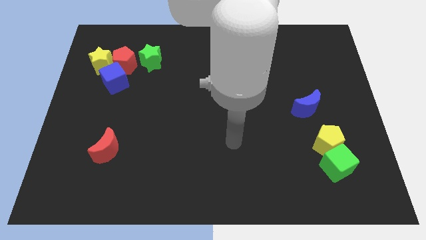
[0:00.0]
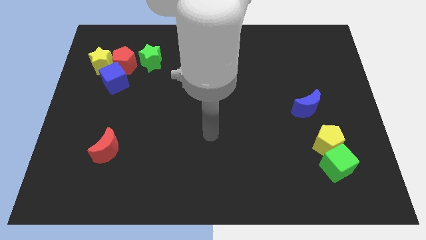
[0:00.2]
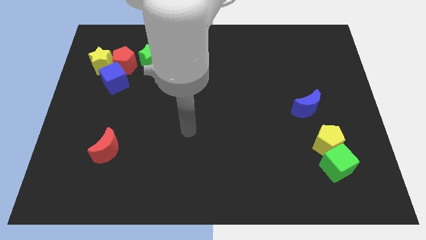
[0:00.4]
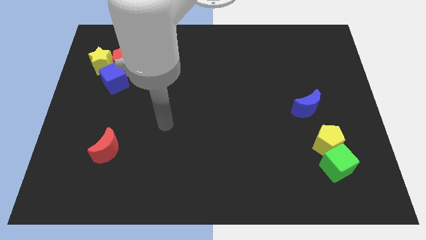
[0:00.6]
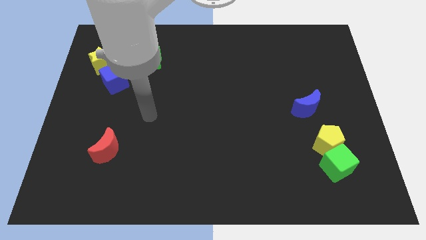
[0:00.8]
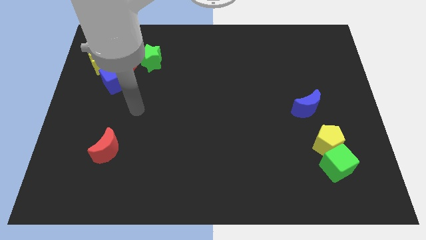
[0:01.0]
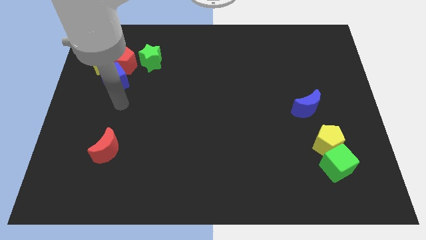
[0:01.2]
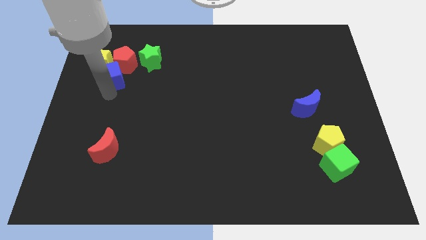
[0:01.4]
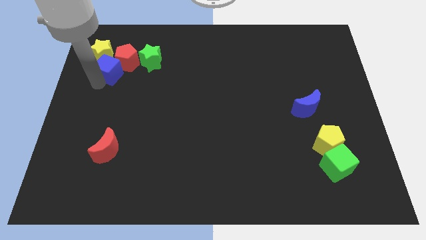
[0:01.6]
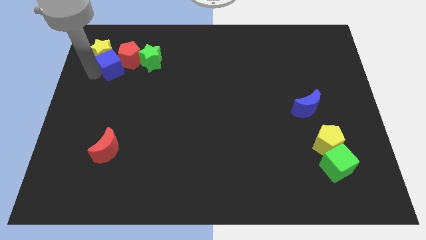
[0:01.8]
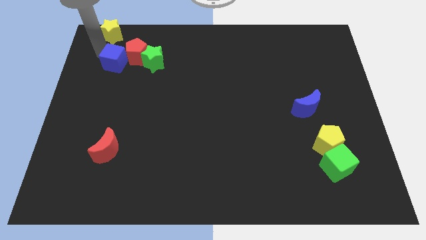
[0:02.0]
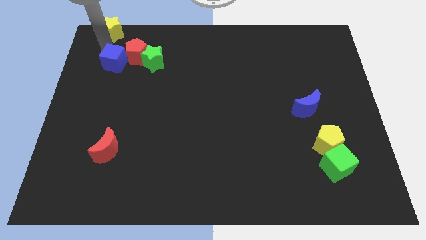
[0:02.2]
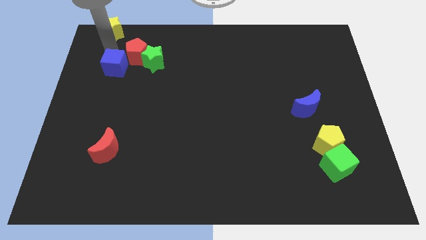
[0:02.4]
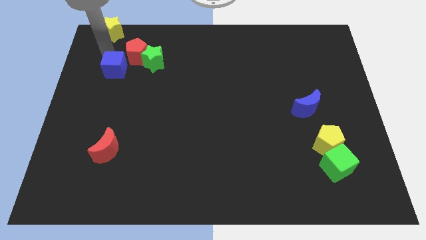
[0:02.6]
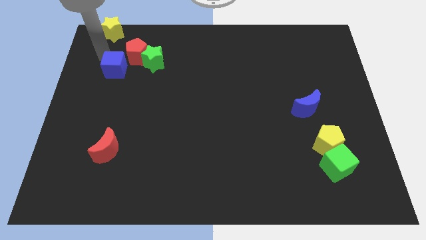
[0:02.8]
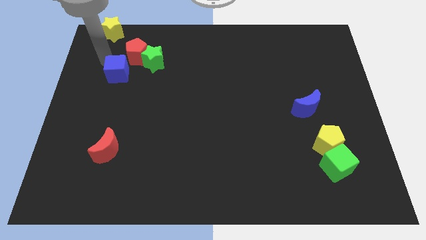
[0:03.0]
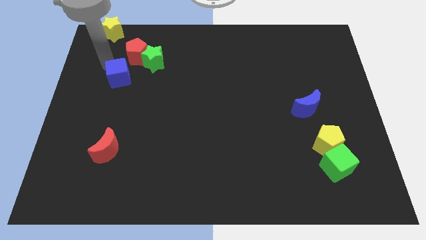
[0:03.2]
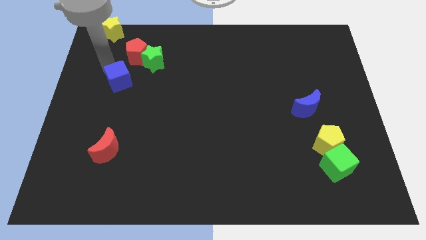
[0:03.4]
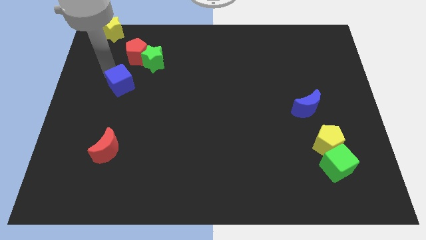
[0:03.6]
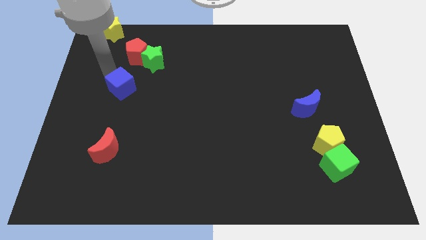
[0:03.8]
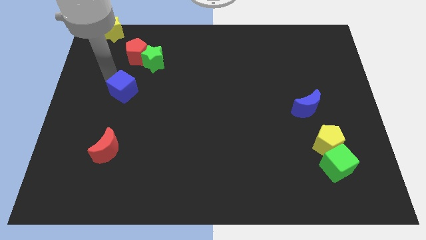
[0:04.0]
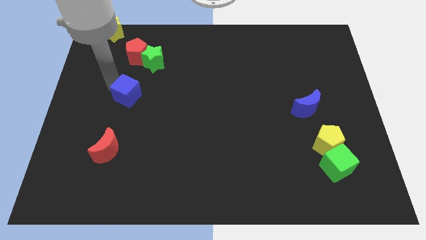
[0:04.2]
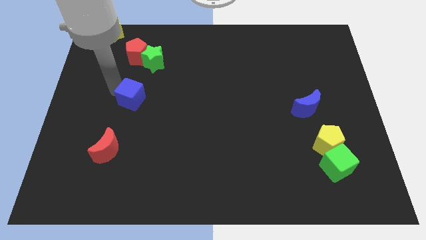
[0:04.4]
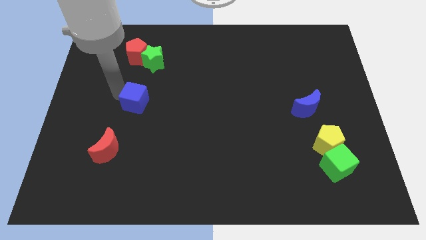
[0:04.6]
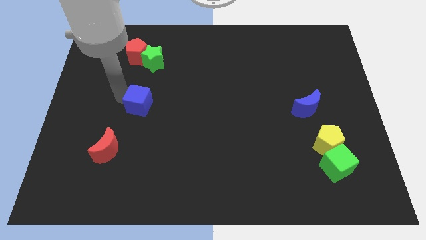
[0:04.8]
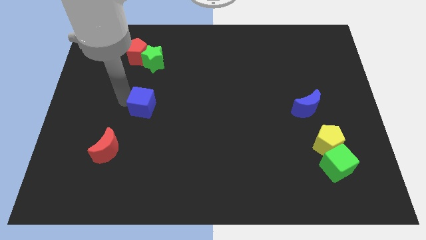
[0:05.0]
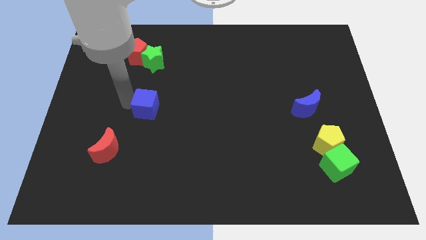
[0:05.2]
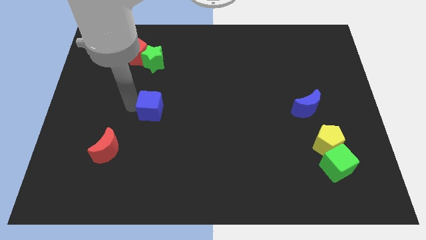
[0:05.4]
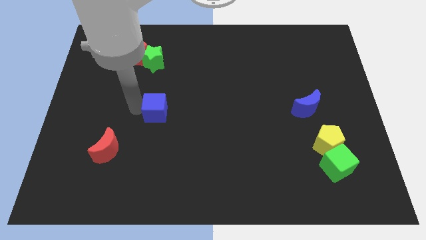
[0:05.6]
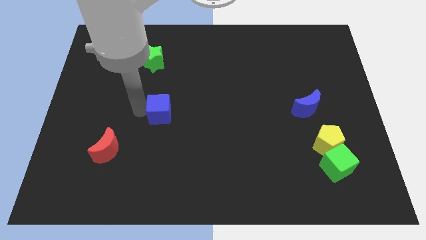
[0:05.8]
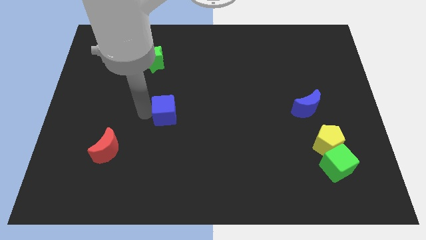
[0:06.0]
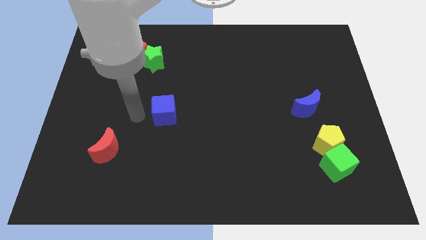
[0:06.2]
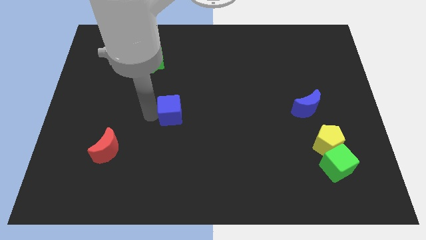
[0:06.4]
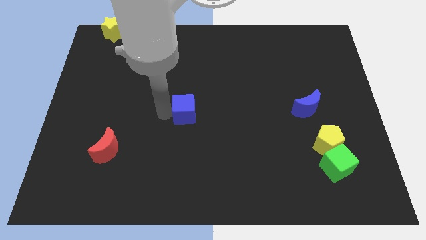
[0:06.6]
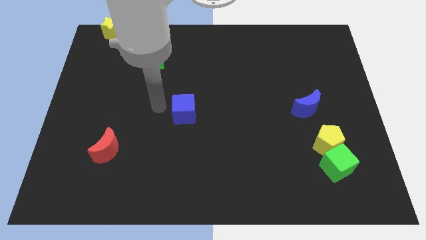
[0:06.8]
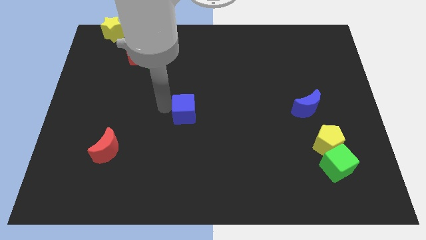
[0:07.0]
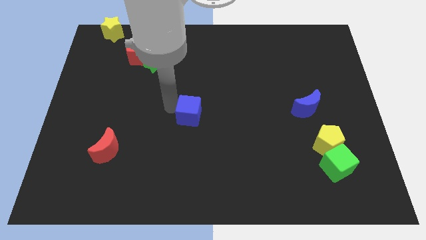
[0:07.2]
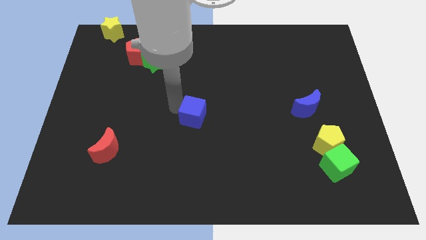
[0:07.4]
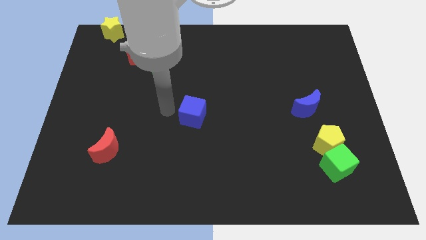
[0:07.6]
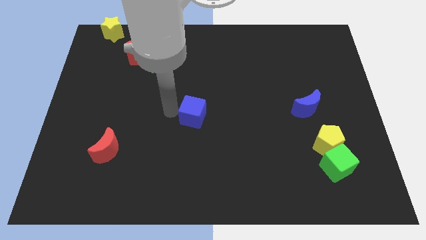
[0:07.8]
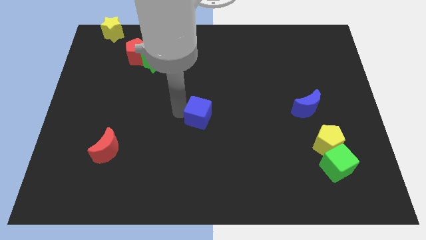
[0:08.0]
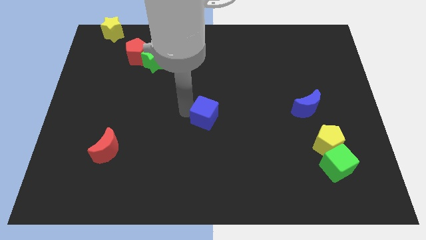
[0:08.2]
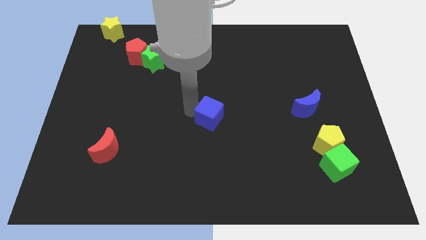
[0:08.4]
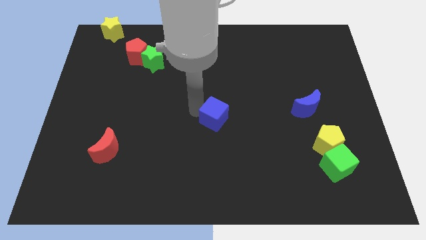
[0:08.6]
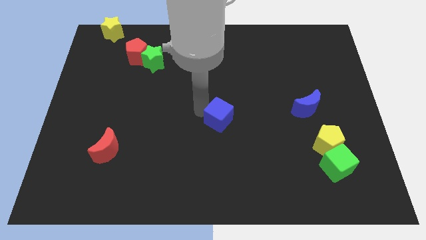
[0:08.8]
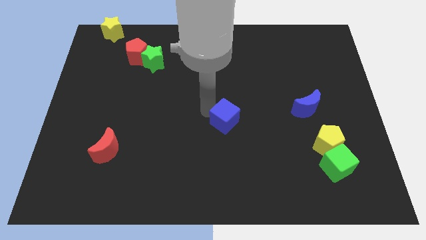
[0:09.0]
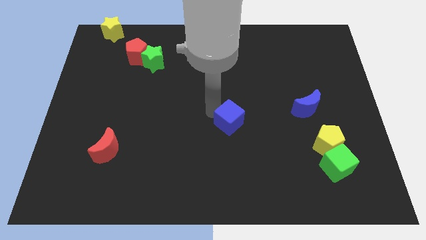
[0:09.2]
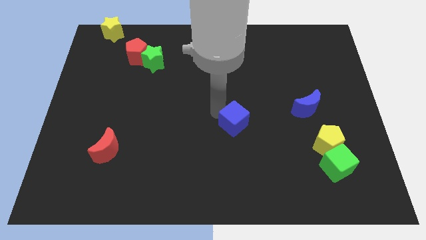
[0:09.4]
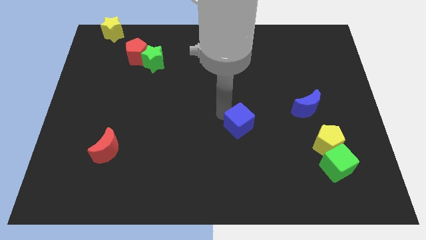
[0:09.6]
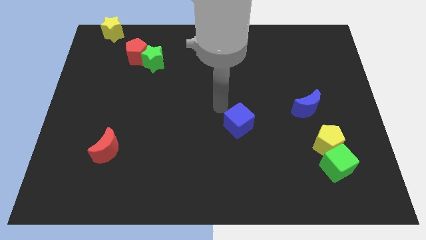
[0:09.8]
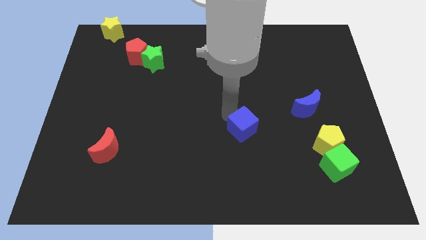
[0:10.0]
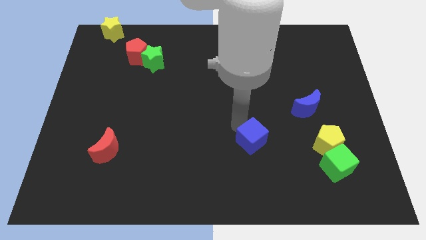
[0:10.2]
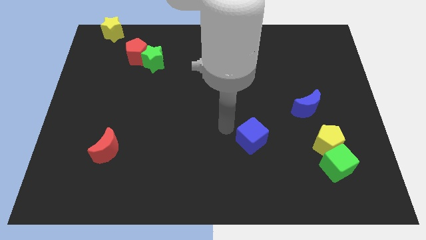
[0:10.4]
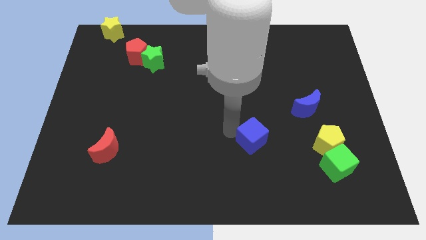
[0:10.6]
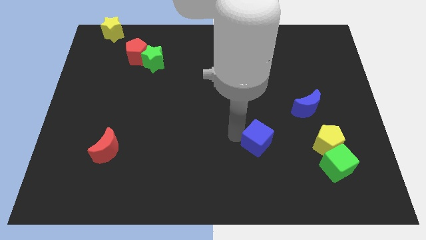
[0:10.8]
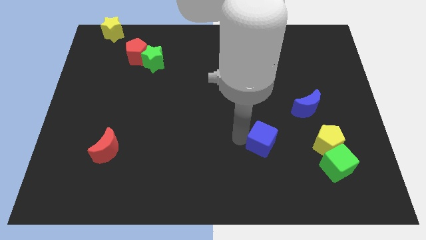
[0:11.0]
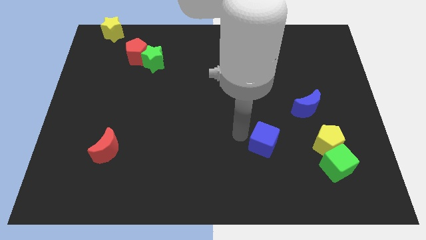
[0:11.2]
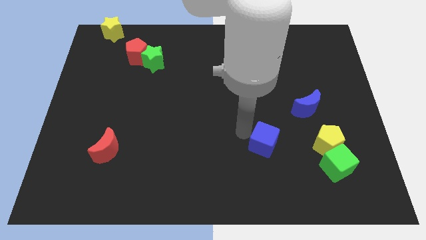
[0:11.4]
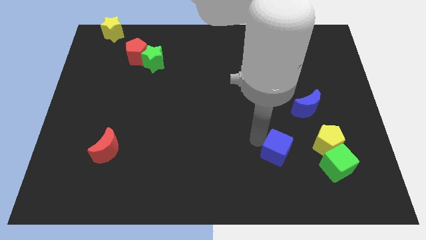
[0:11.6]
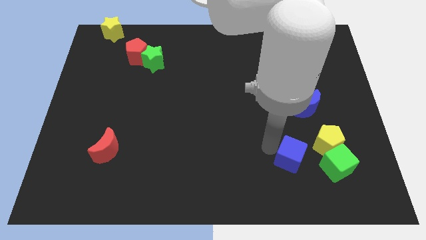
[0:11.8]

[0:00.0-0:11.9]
put the blue cube diagonally down and to the left of the yellow pentagon

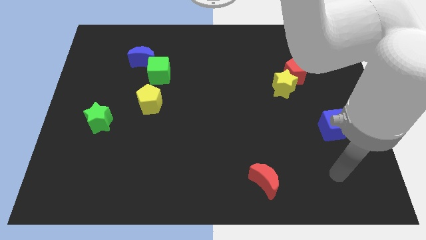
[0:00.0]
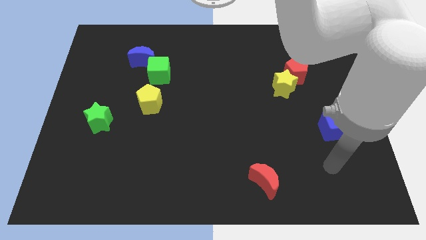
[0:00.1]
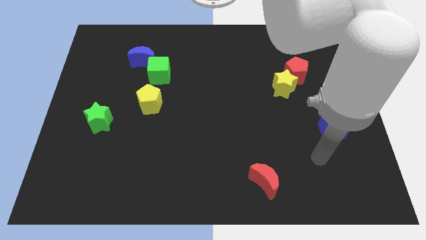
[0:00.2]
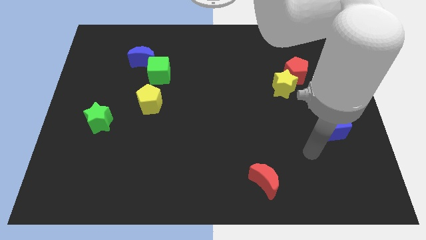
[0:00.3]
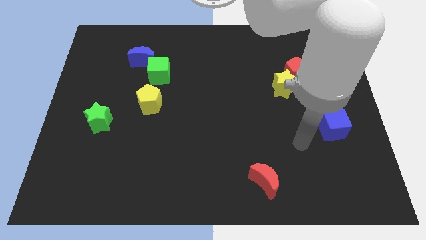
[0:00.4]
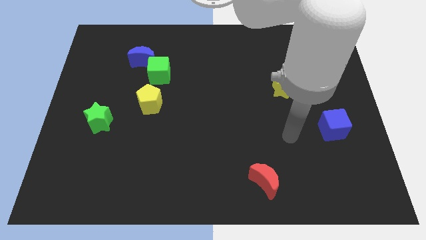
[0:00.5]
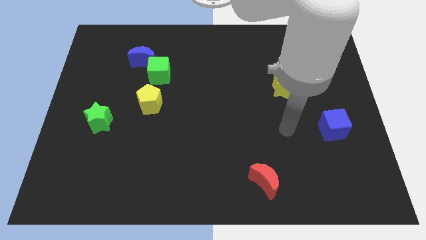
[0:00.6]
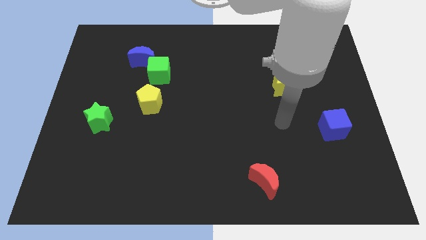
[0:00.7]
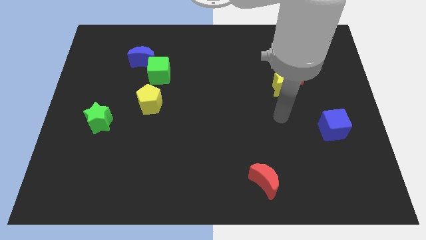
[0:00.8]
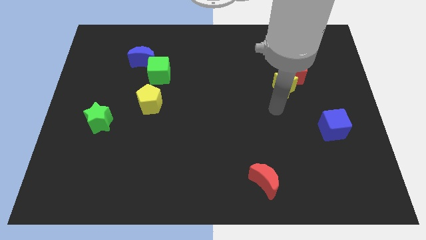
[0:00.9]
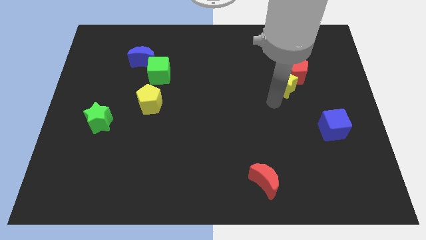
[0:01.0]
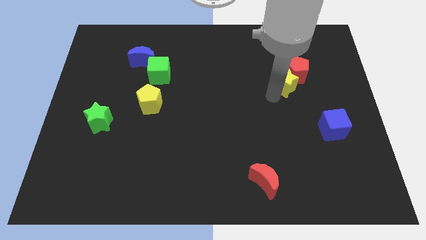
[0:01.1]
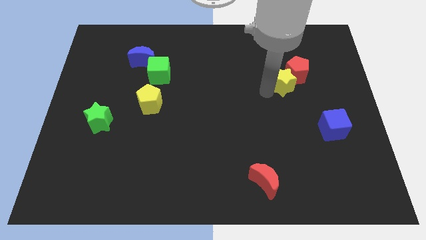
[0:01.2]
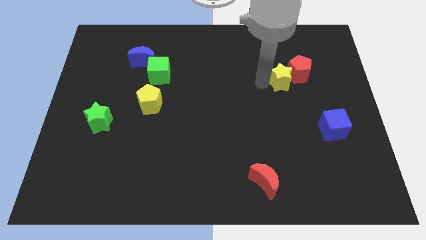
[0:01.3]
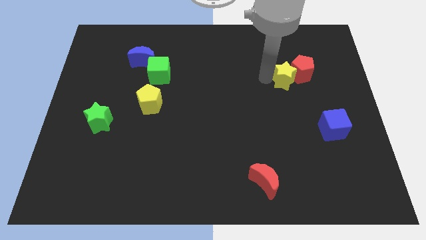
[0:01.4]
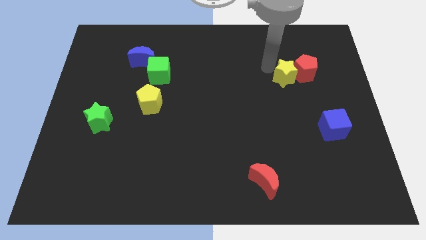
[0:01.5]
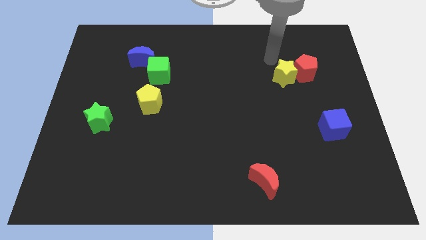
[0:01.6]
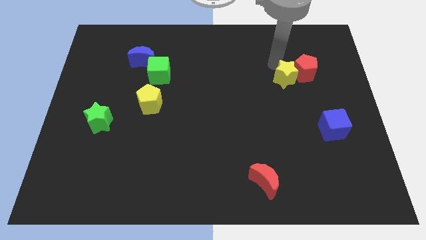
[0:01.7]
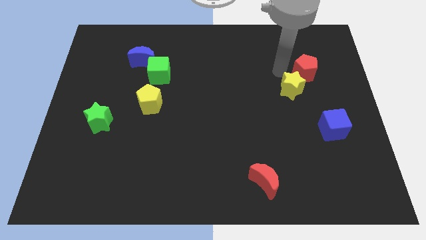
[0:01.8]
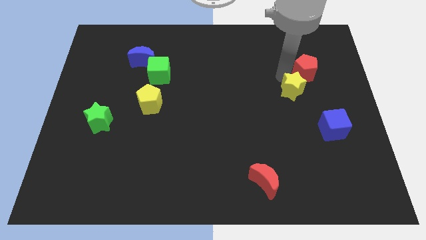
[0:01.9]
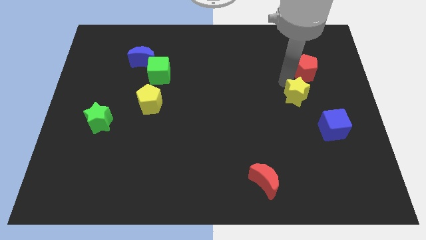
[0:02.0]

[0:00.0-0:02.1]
push the yellow star to the top left of the blue cube
